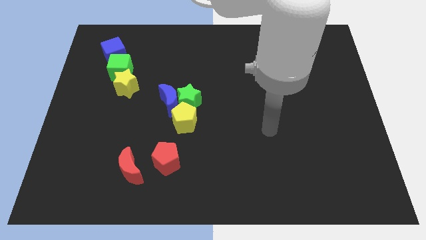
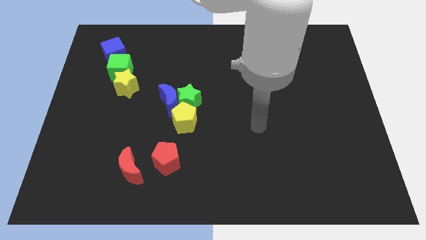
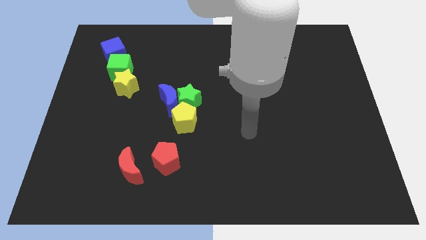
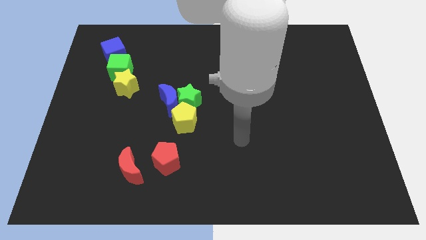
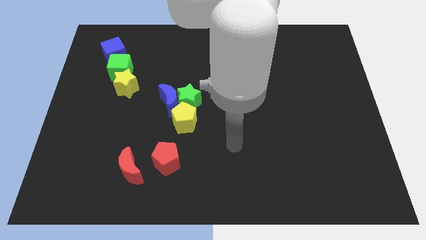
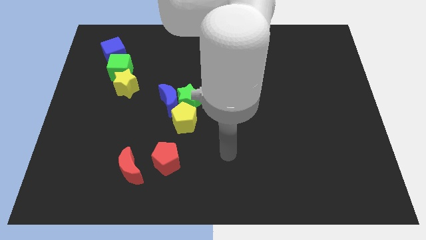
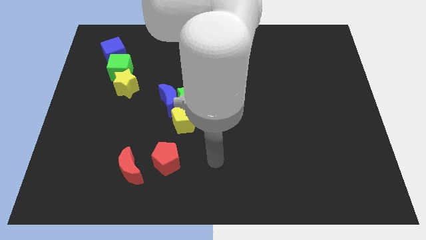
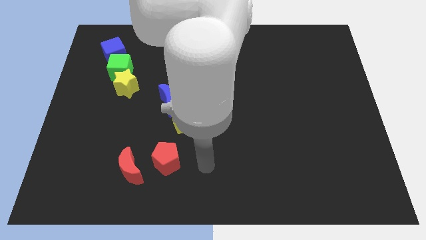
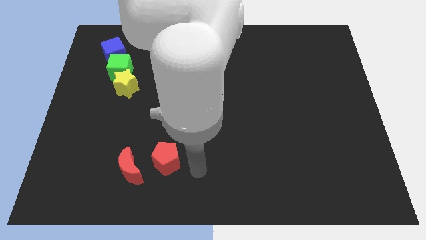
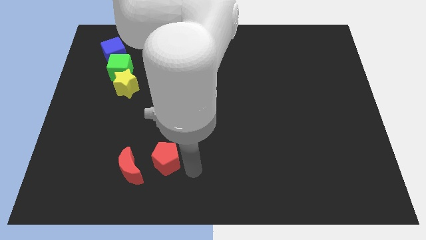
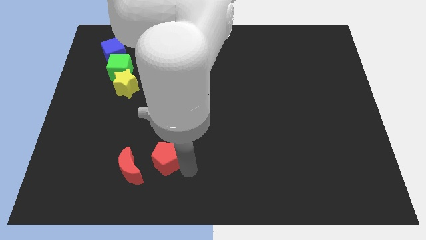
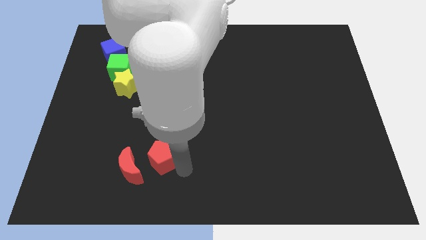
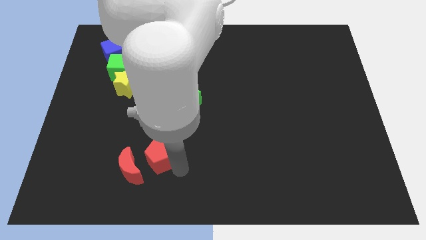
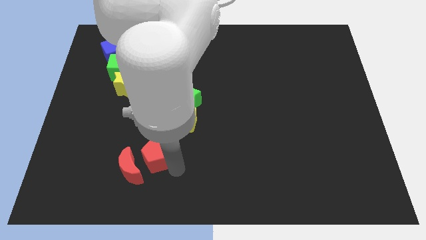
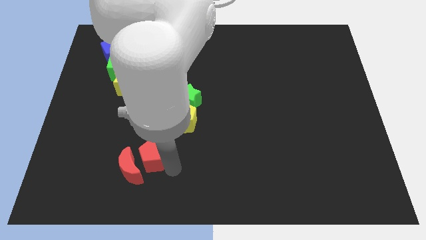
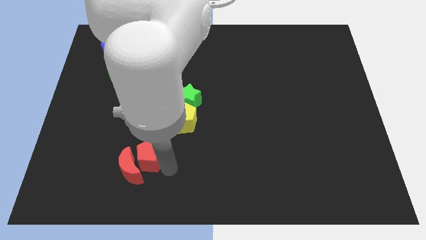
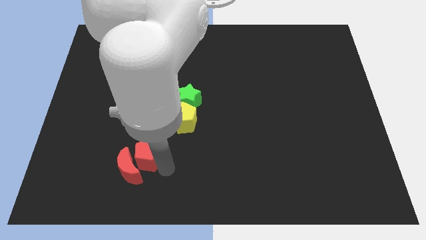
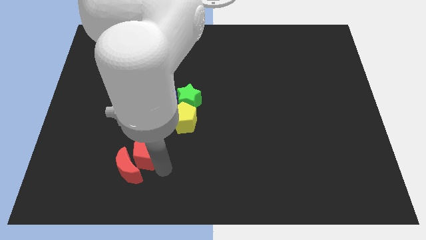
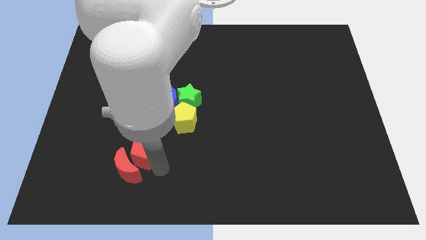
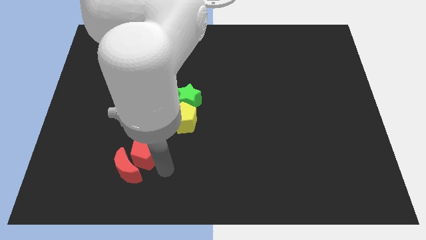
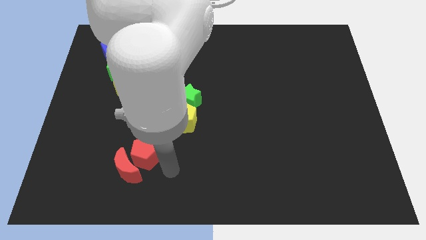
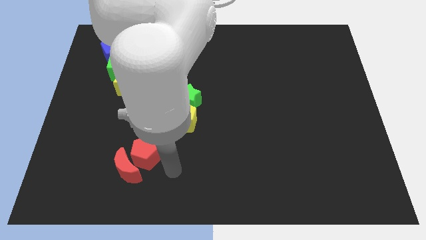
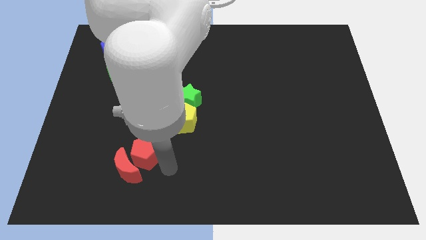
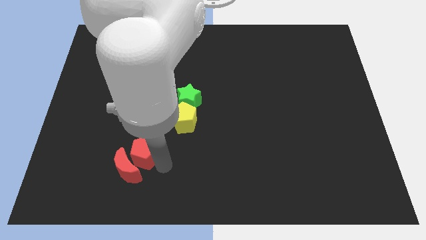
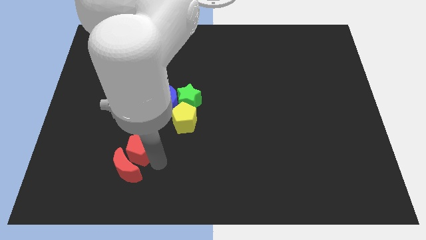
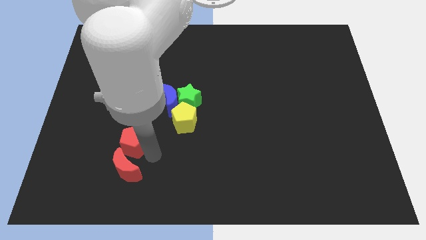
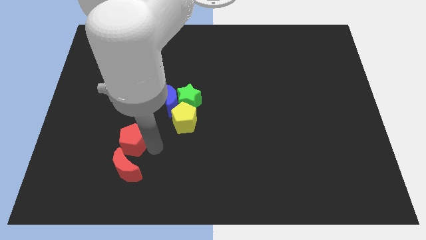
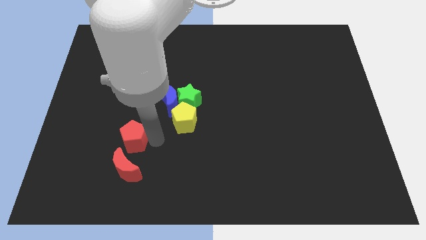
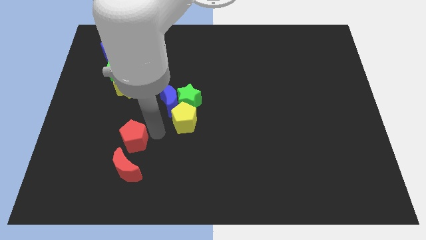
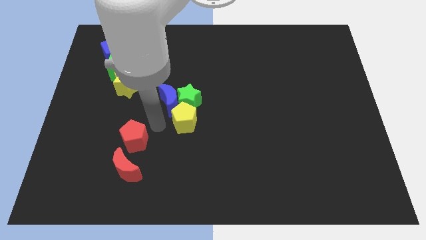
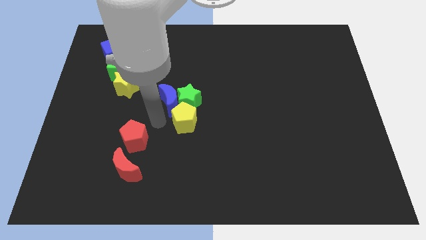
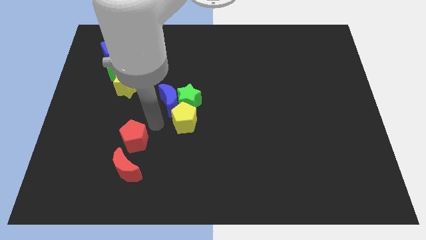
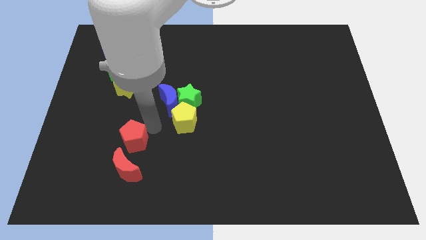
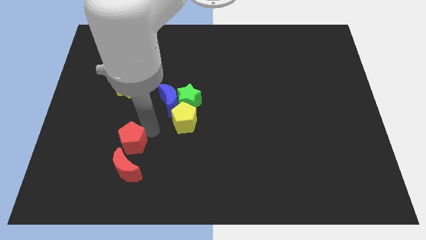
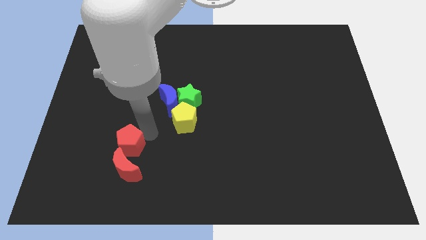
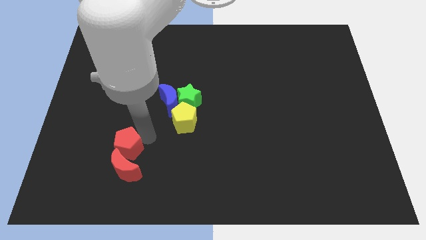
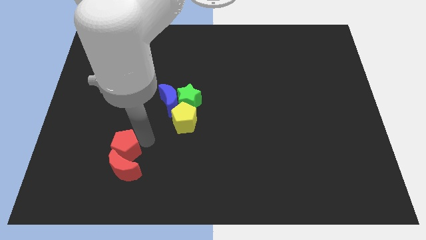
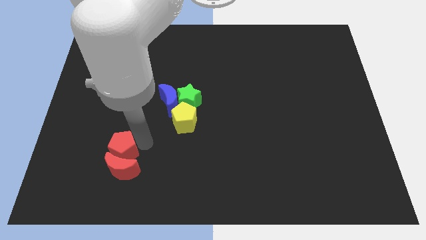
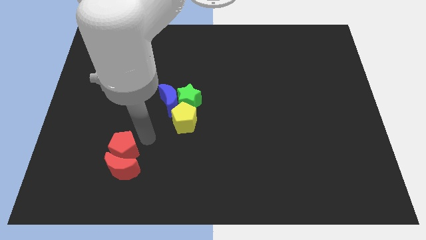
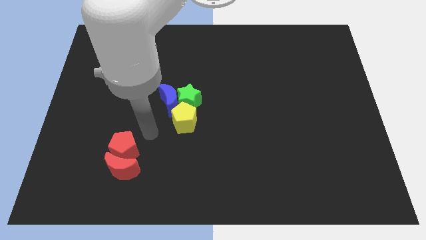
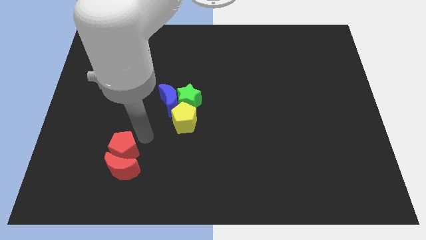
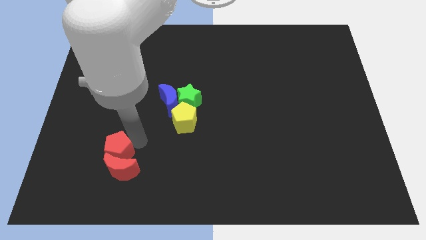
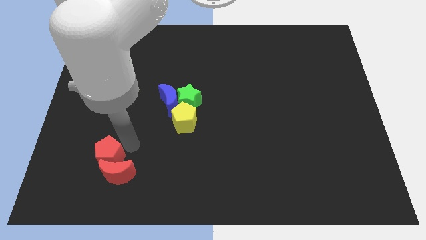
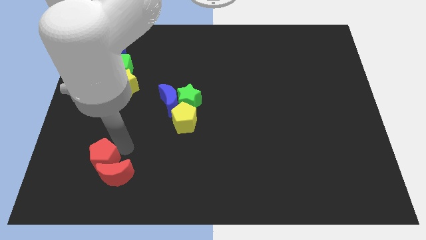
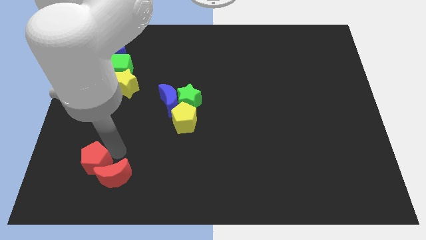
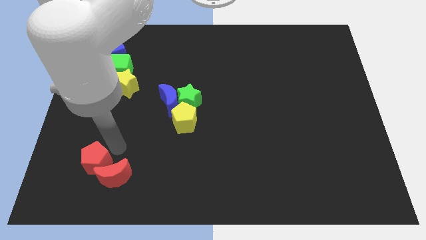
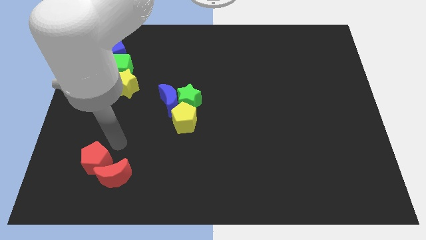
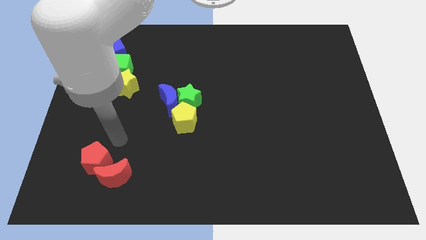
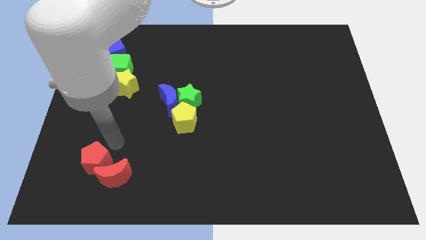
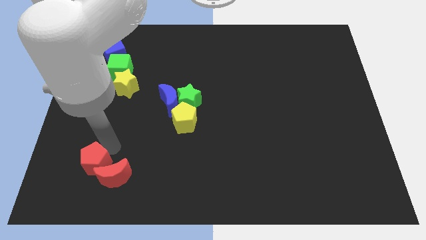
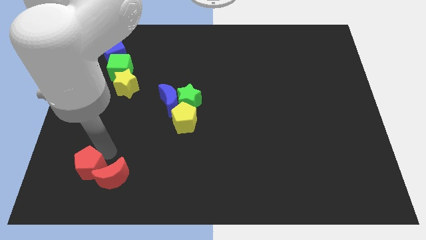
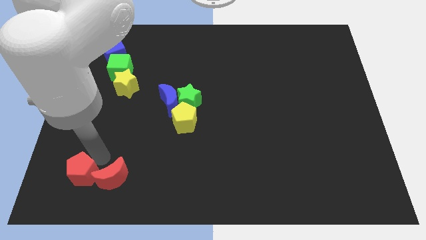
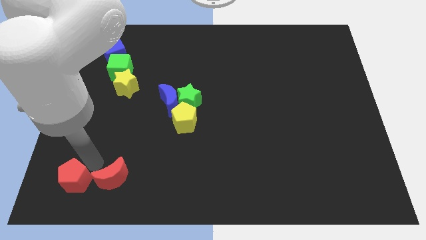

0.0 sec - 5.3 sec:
put the red pentagon to the bottom left
